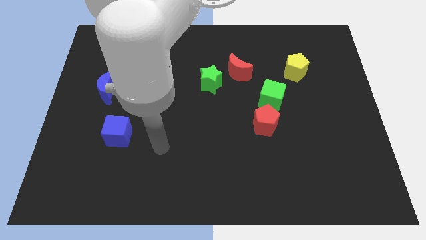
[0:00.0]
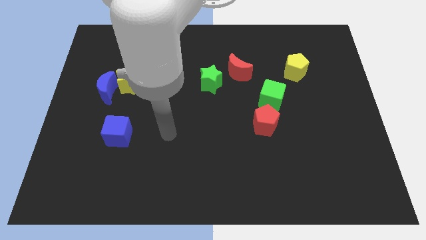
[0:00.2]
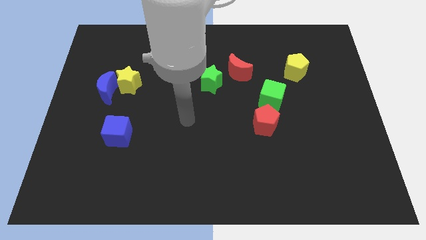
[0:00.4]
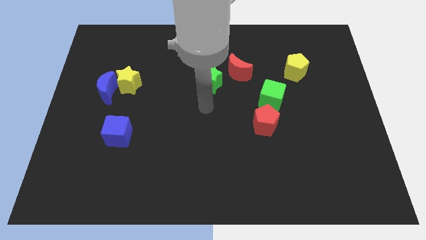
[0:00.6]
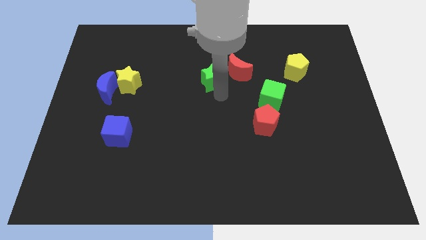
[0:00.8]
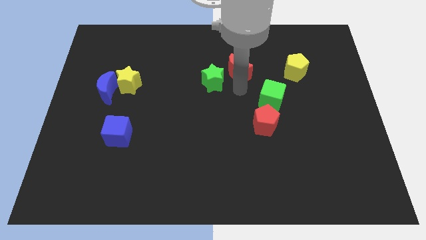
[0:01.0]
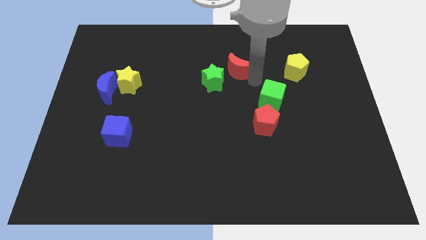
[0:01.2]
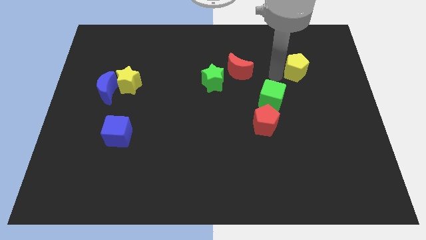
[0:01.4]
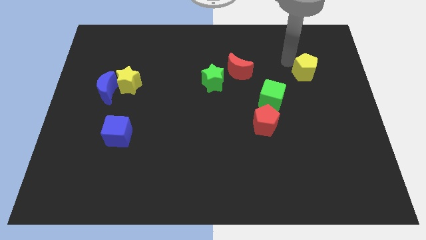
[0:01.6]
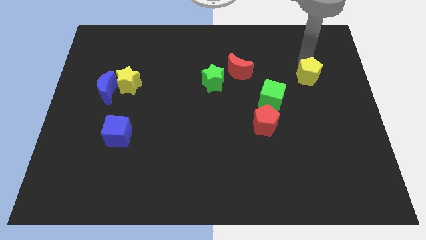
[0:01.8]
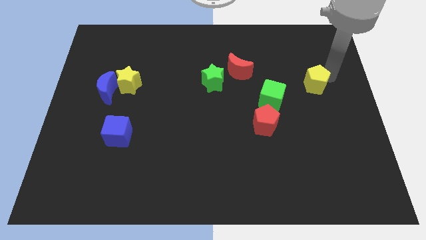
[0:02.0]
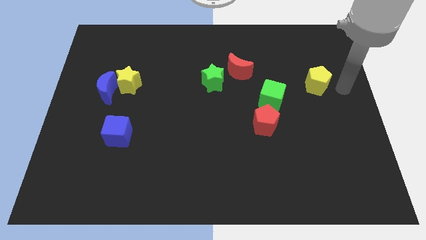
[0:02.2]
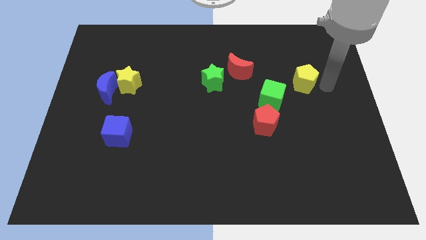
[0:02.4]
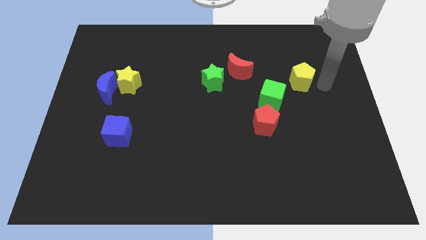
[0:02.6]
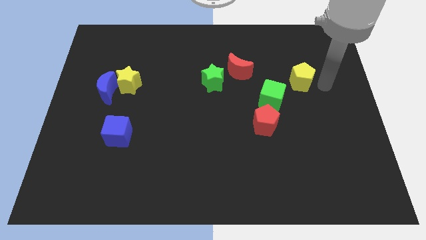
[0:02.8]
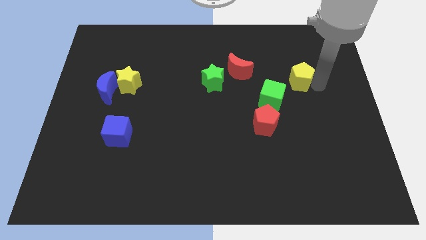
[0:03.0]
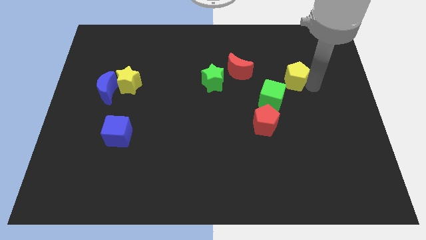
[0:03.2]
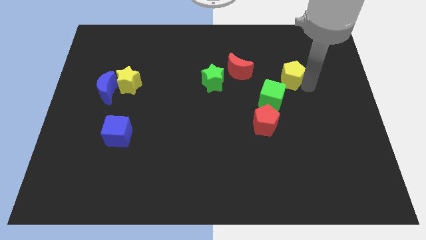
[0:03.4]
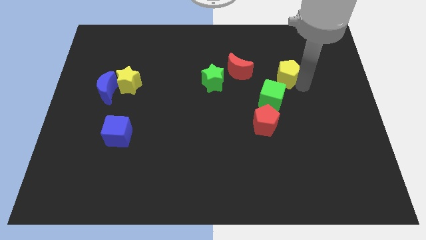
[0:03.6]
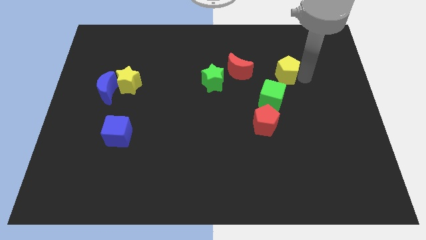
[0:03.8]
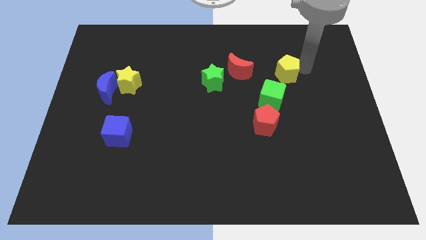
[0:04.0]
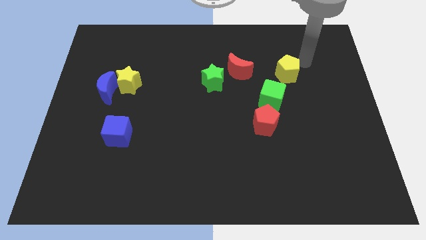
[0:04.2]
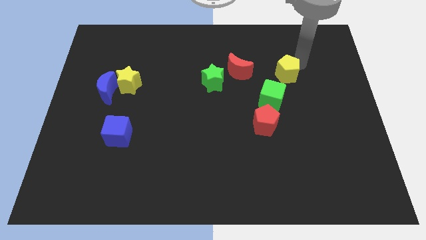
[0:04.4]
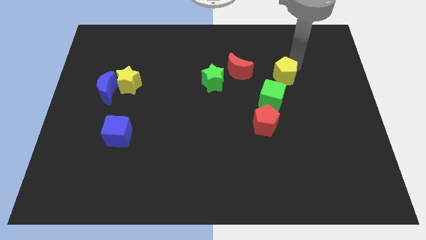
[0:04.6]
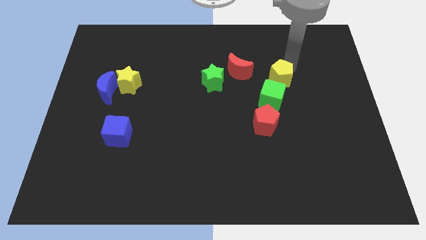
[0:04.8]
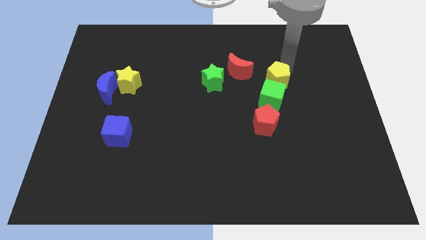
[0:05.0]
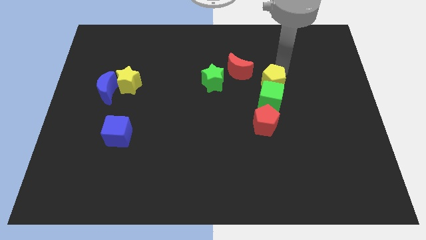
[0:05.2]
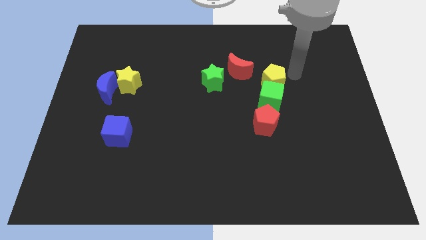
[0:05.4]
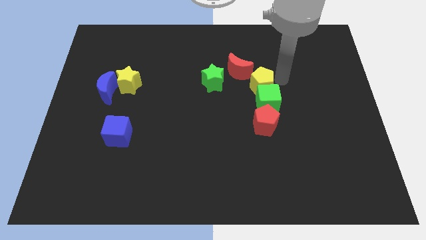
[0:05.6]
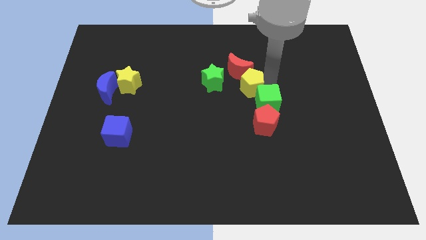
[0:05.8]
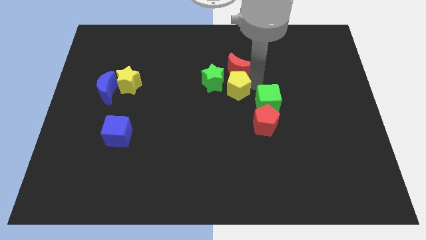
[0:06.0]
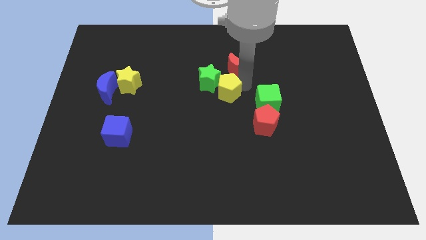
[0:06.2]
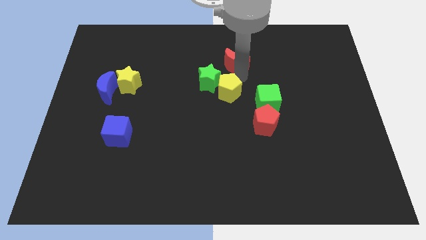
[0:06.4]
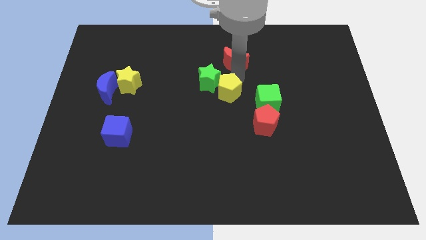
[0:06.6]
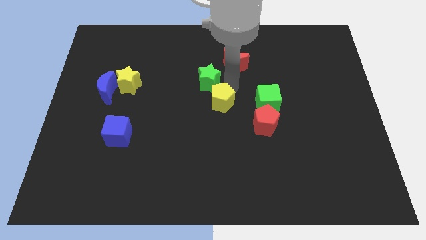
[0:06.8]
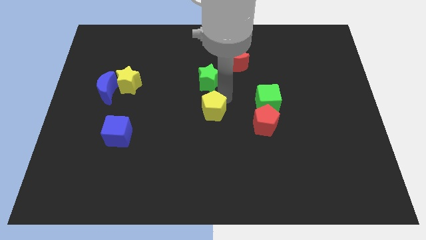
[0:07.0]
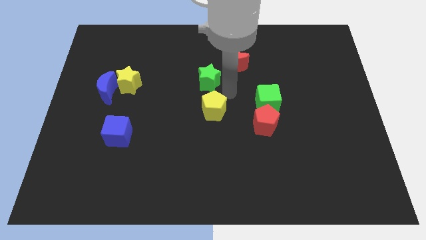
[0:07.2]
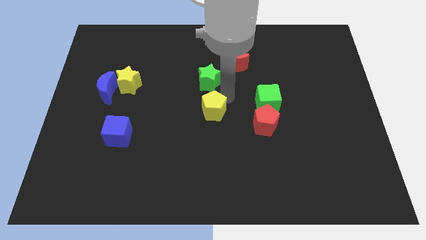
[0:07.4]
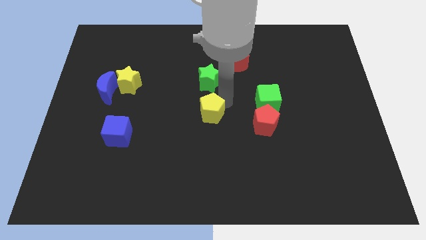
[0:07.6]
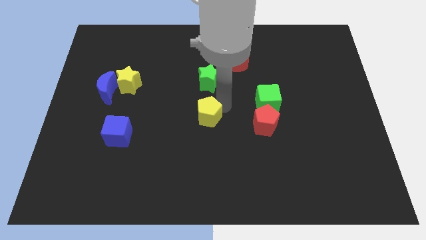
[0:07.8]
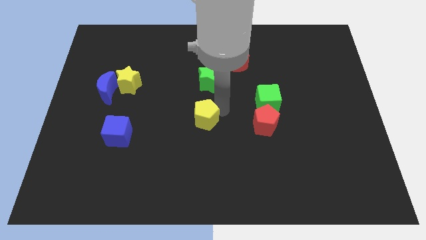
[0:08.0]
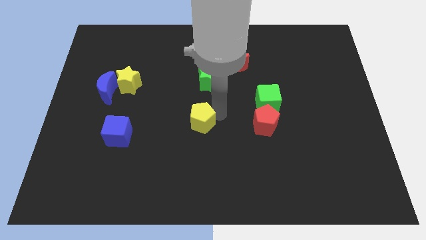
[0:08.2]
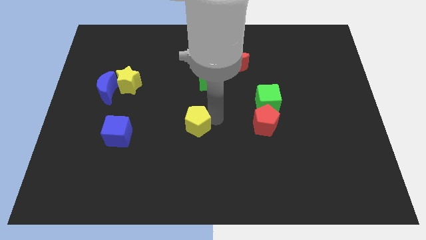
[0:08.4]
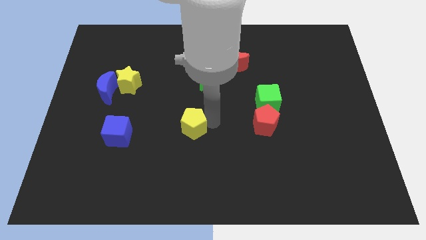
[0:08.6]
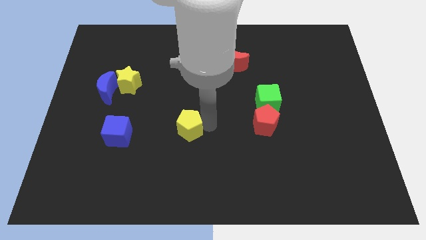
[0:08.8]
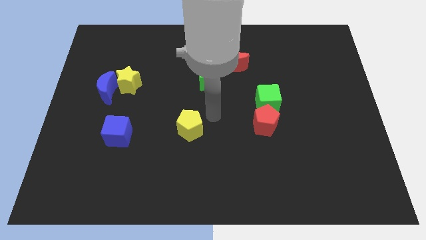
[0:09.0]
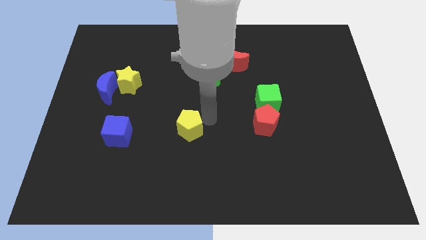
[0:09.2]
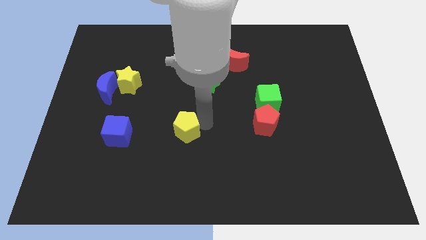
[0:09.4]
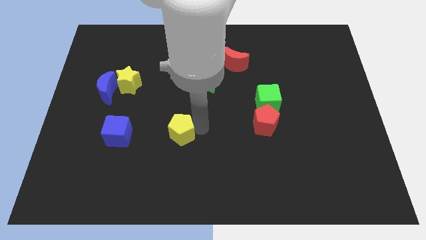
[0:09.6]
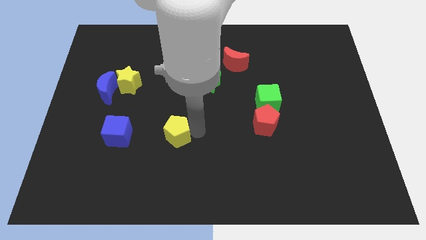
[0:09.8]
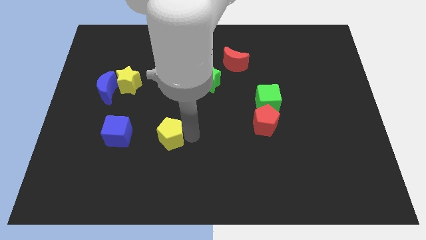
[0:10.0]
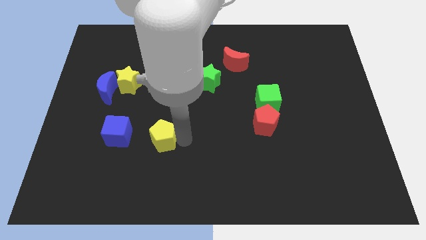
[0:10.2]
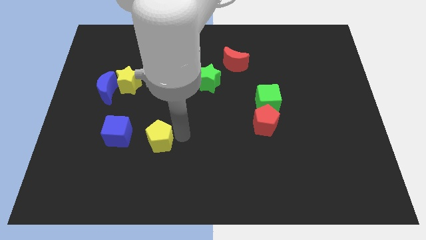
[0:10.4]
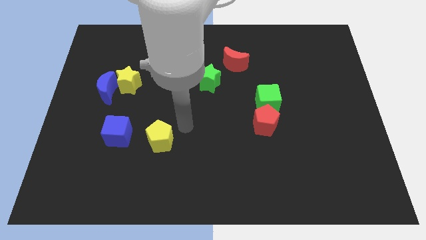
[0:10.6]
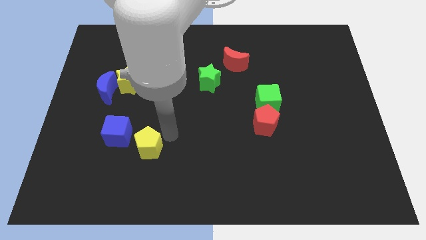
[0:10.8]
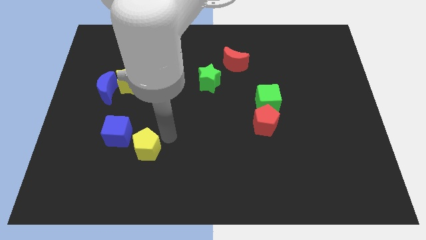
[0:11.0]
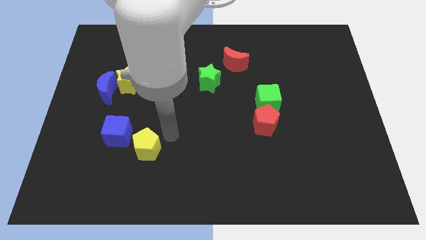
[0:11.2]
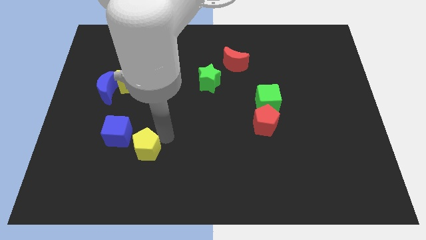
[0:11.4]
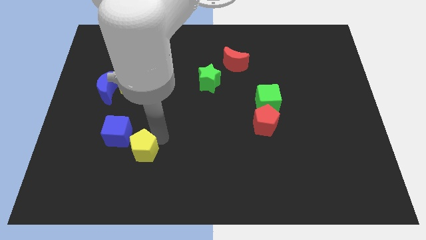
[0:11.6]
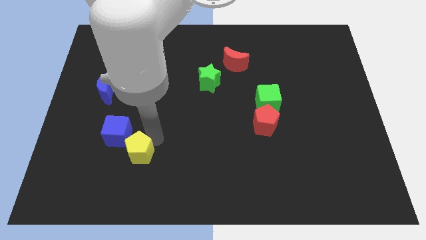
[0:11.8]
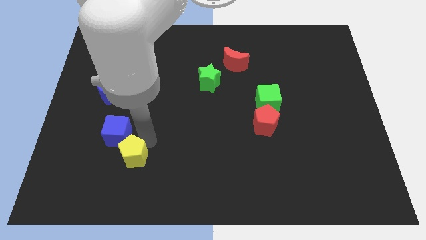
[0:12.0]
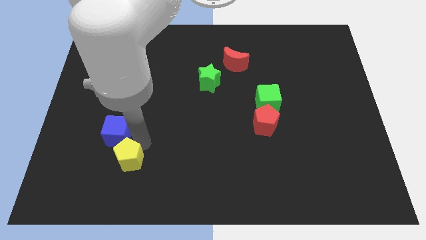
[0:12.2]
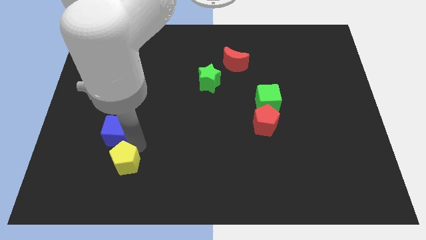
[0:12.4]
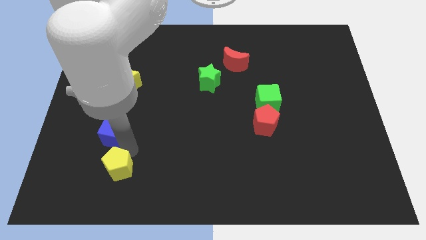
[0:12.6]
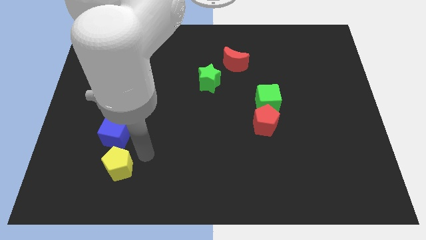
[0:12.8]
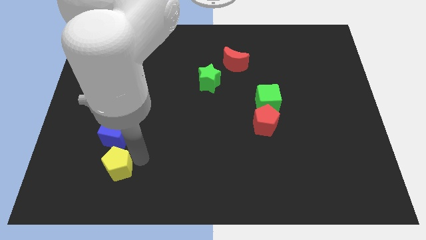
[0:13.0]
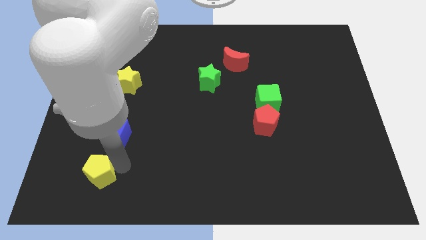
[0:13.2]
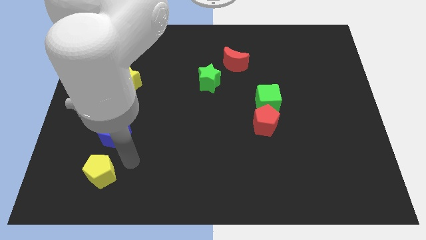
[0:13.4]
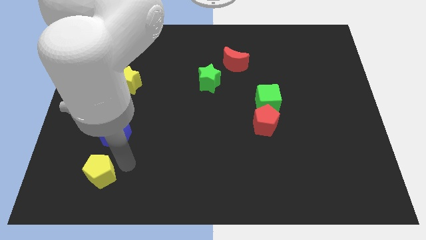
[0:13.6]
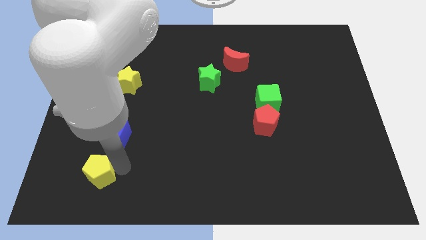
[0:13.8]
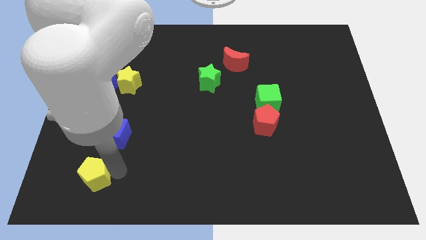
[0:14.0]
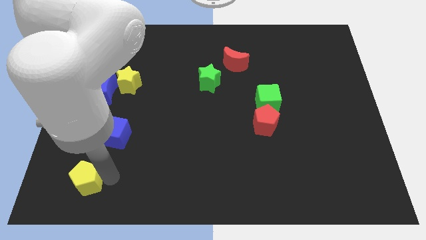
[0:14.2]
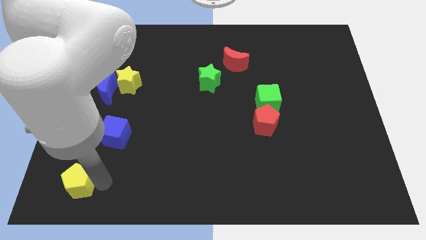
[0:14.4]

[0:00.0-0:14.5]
move the yellow pentagon to the bottom left of the board
